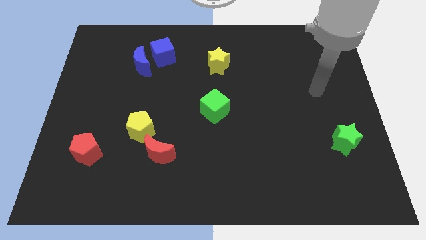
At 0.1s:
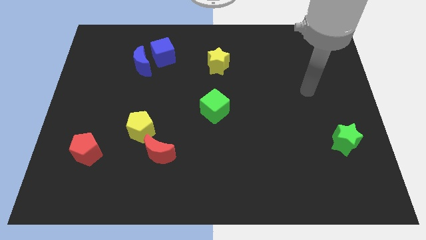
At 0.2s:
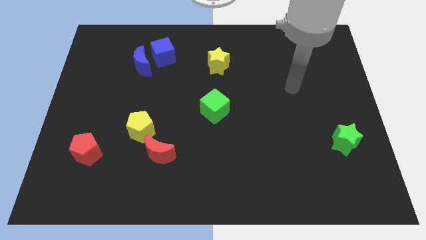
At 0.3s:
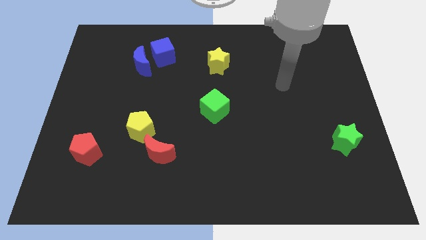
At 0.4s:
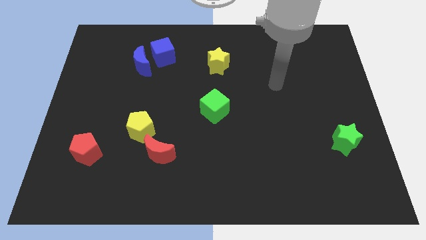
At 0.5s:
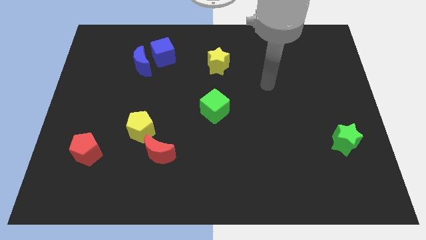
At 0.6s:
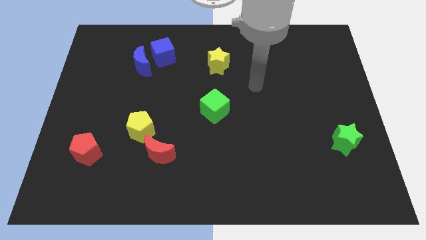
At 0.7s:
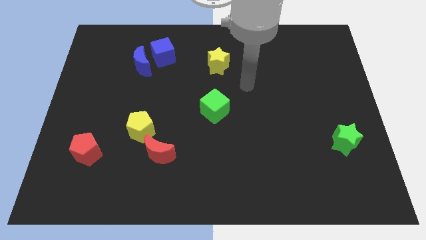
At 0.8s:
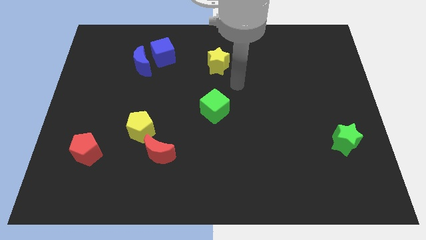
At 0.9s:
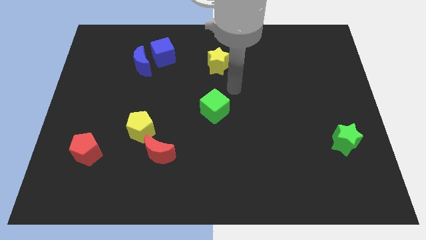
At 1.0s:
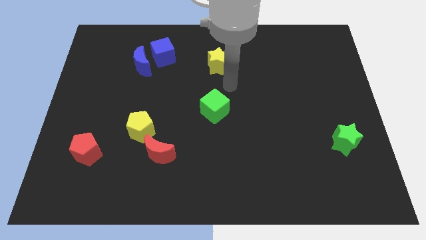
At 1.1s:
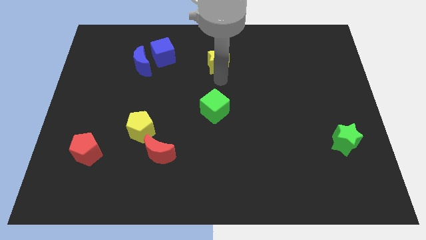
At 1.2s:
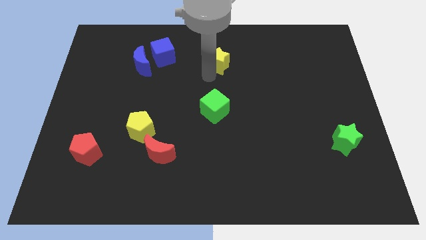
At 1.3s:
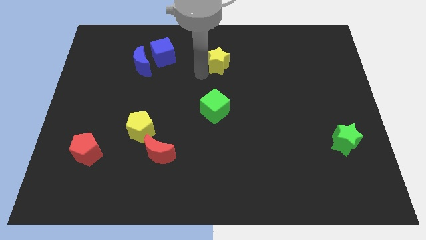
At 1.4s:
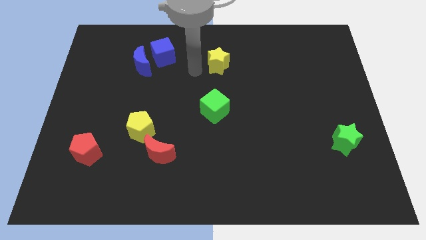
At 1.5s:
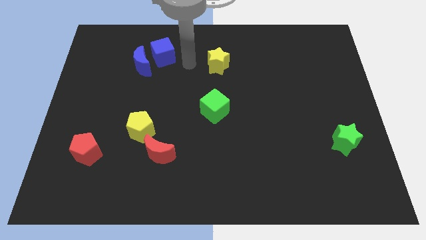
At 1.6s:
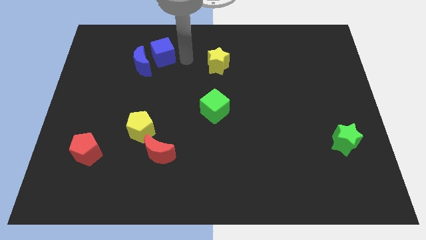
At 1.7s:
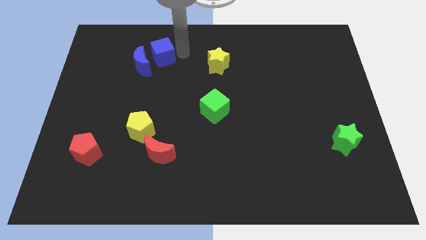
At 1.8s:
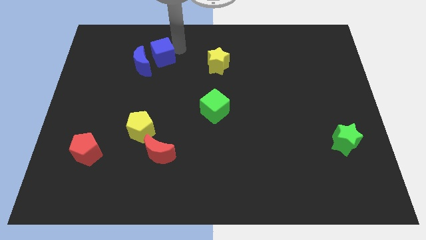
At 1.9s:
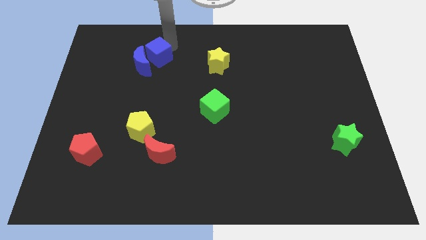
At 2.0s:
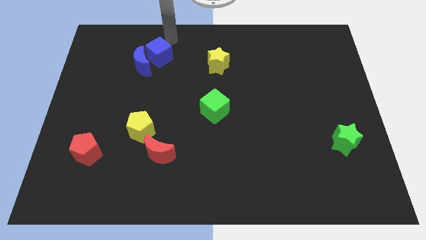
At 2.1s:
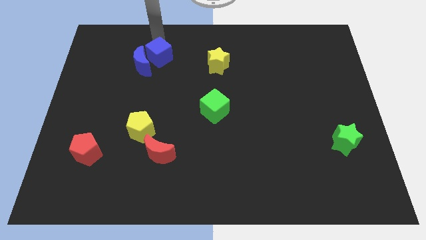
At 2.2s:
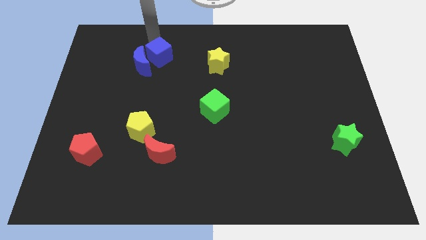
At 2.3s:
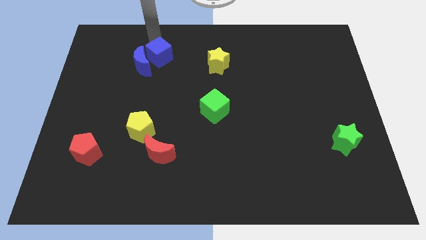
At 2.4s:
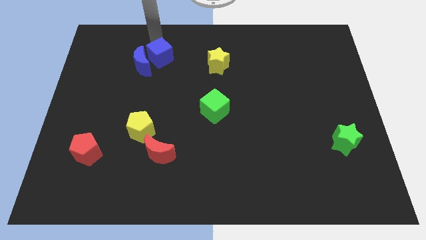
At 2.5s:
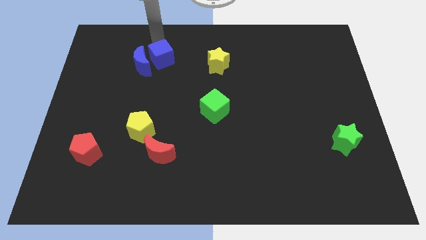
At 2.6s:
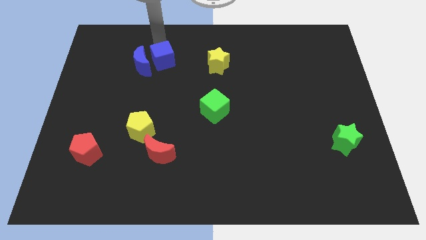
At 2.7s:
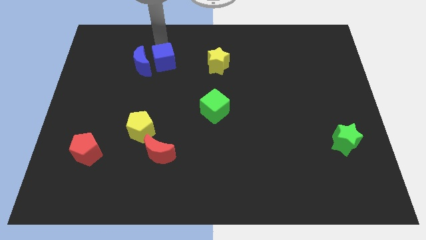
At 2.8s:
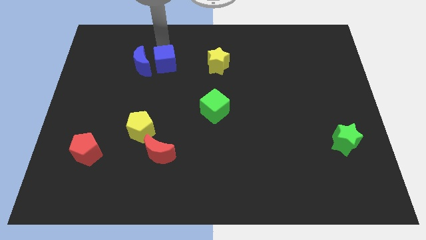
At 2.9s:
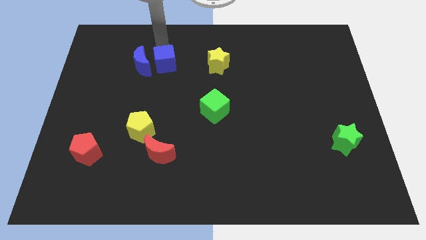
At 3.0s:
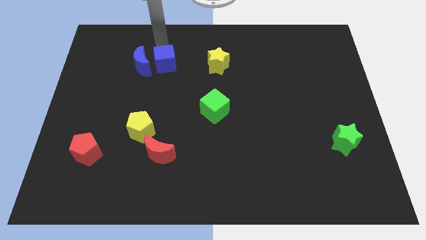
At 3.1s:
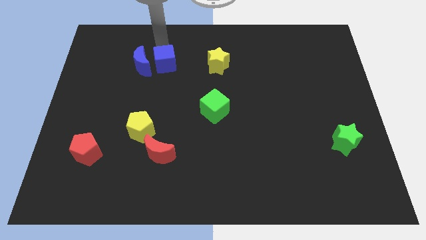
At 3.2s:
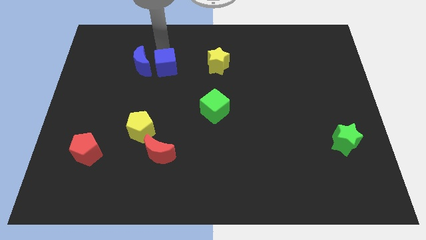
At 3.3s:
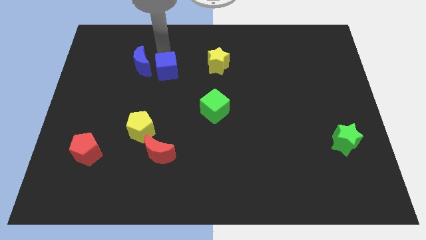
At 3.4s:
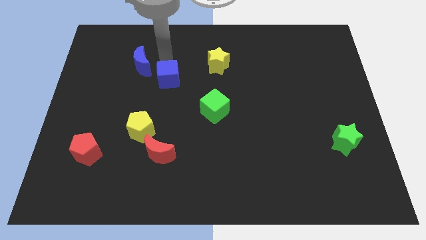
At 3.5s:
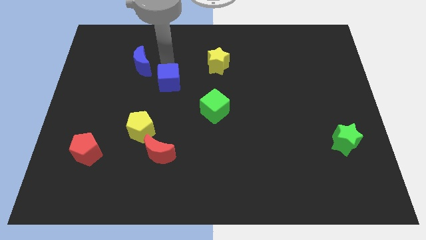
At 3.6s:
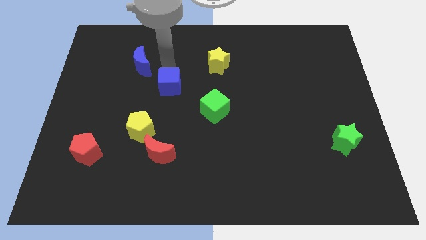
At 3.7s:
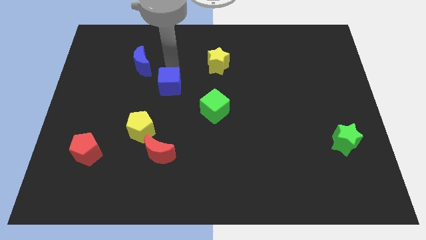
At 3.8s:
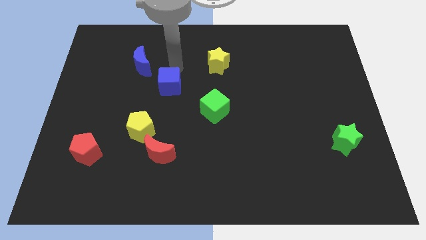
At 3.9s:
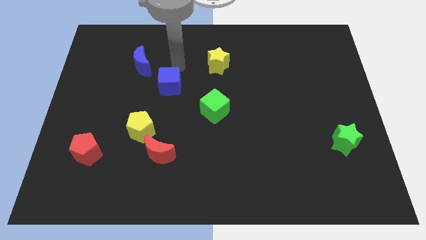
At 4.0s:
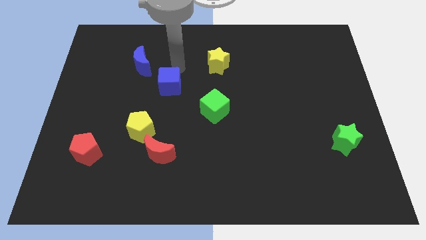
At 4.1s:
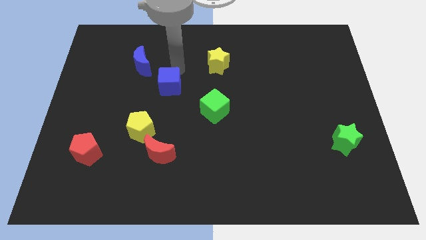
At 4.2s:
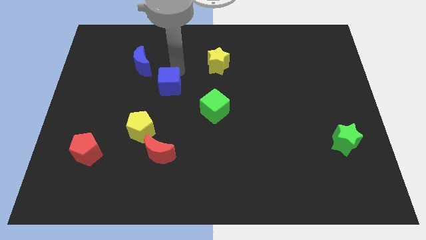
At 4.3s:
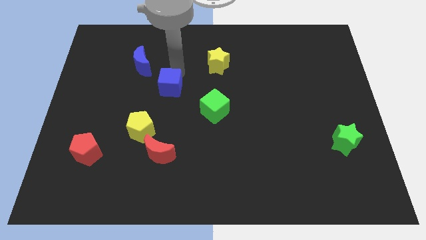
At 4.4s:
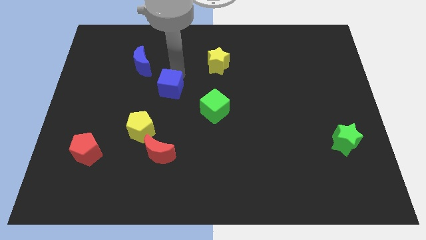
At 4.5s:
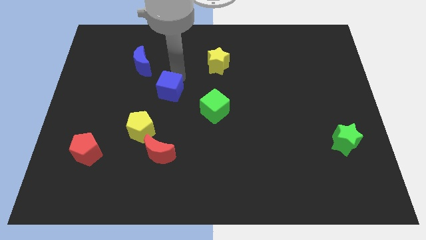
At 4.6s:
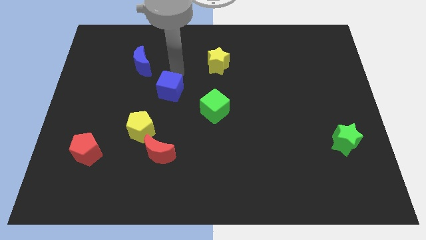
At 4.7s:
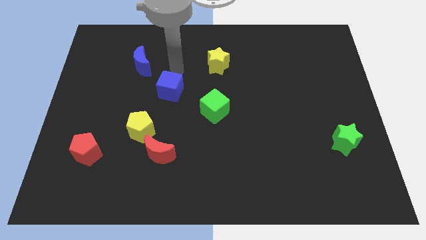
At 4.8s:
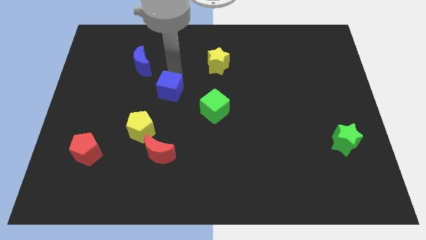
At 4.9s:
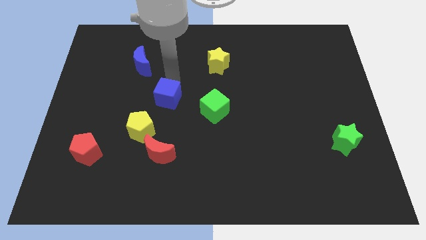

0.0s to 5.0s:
push the blue cube above the red moon

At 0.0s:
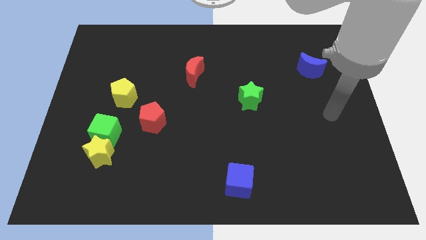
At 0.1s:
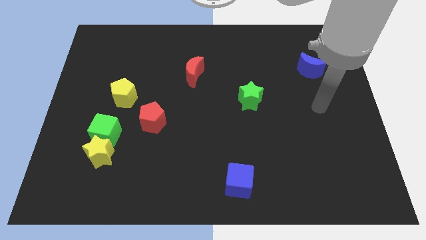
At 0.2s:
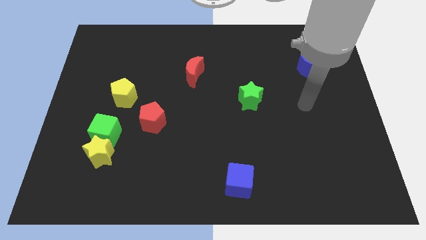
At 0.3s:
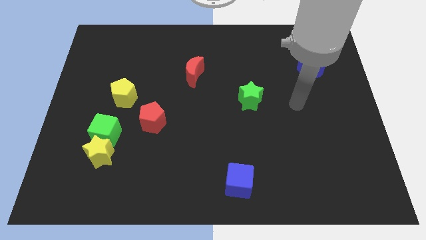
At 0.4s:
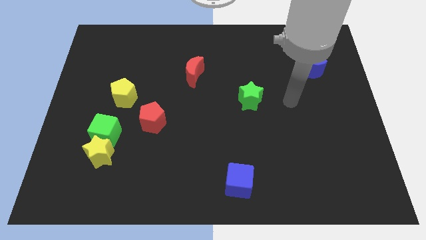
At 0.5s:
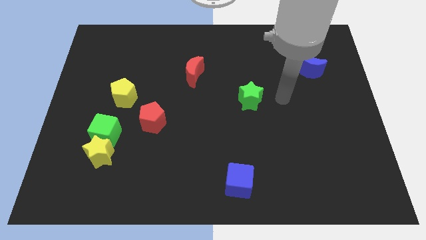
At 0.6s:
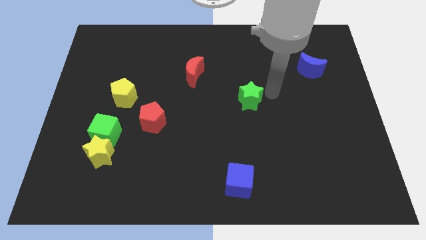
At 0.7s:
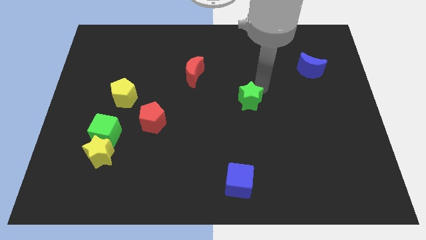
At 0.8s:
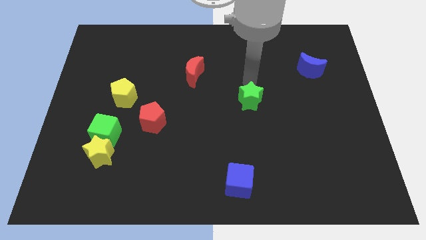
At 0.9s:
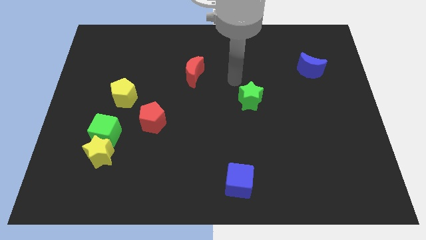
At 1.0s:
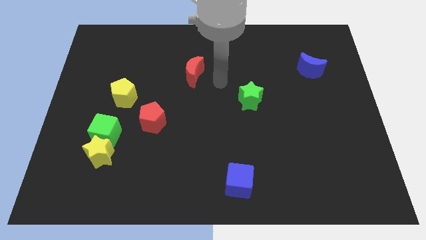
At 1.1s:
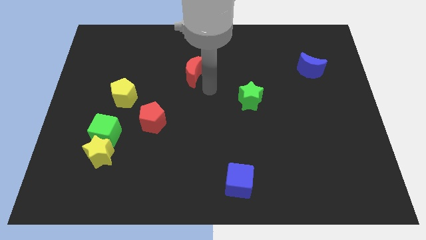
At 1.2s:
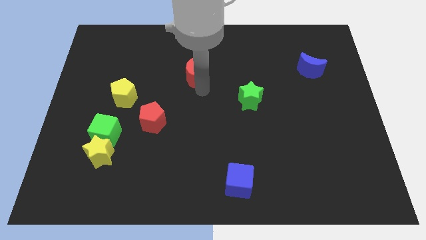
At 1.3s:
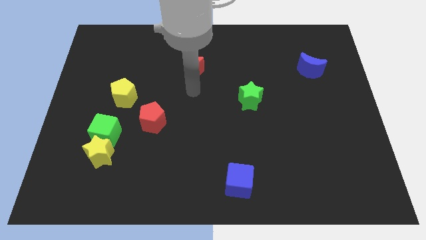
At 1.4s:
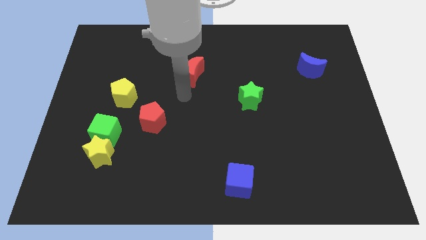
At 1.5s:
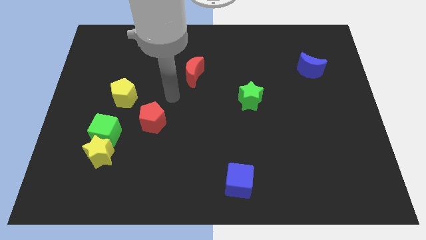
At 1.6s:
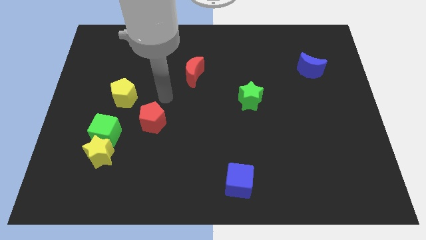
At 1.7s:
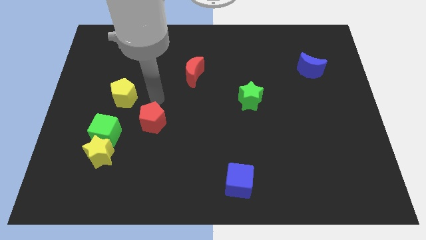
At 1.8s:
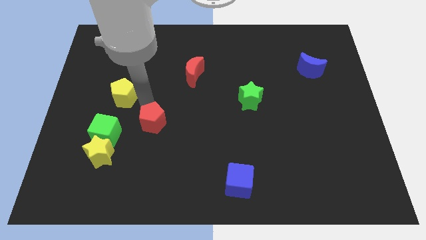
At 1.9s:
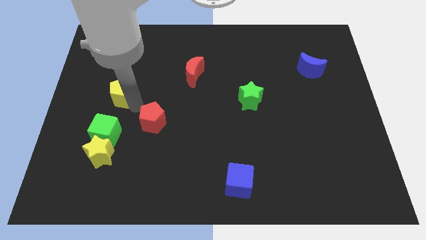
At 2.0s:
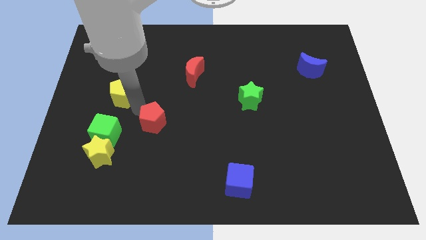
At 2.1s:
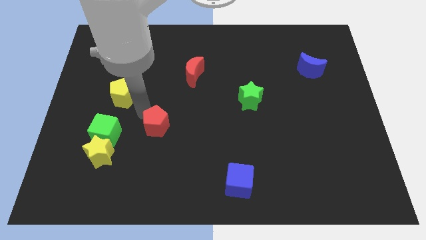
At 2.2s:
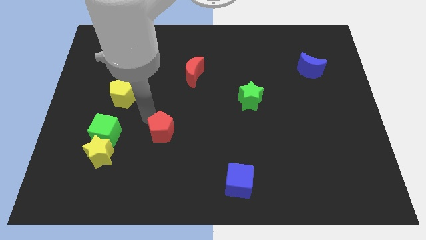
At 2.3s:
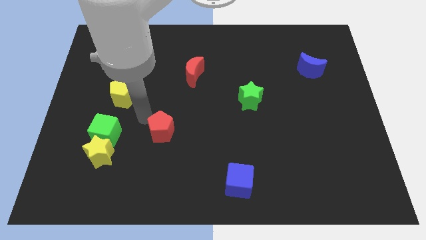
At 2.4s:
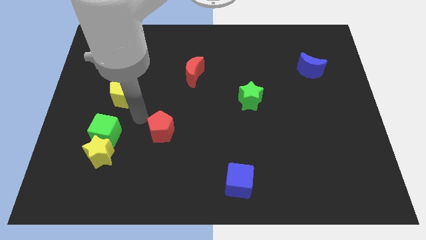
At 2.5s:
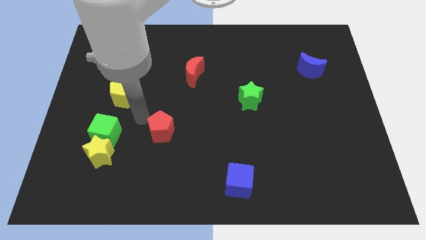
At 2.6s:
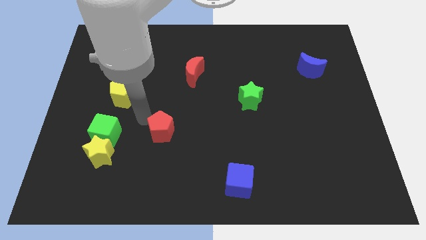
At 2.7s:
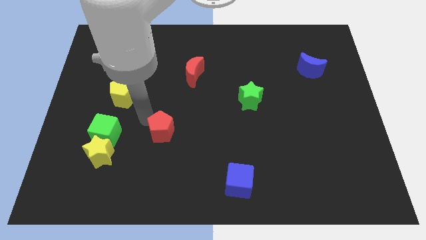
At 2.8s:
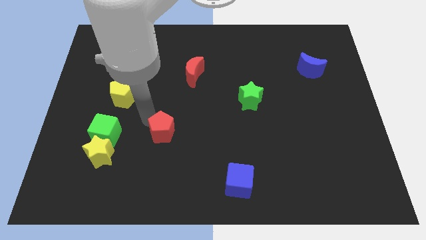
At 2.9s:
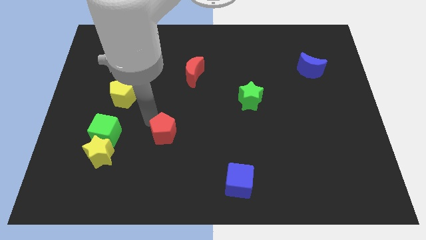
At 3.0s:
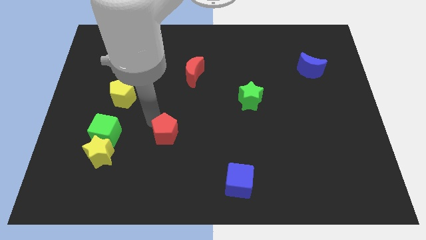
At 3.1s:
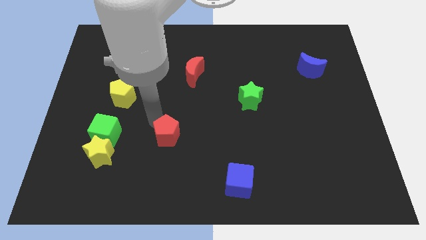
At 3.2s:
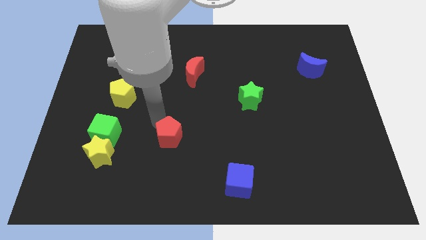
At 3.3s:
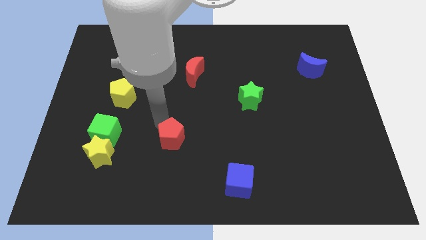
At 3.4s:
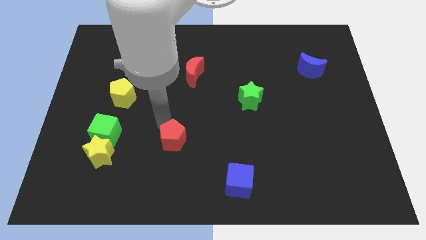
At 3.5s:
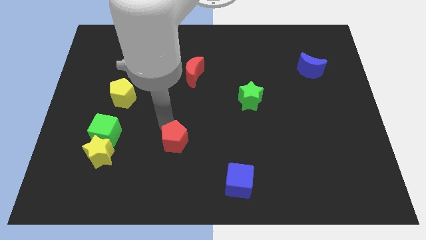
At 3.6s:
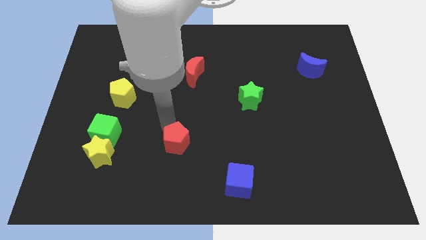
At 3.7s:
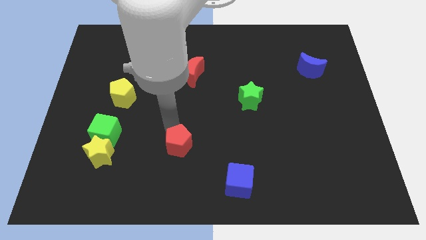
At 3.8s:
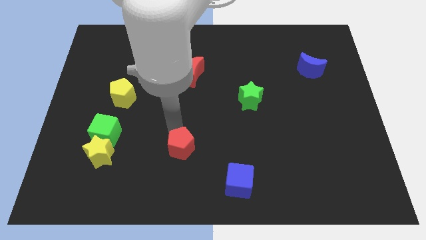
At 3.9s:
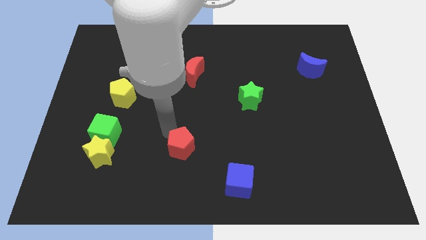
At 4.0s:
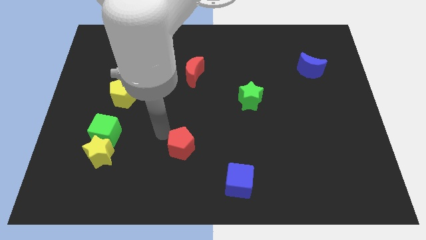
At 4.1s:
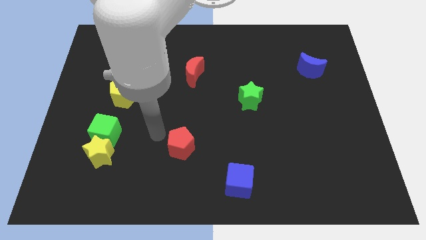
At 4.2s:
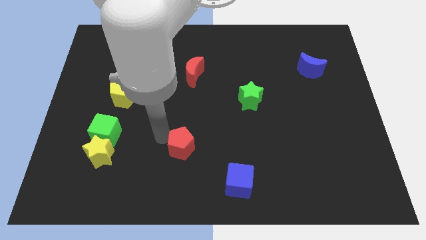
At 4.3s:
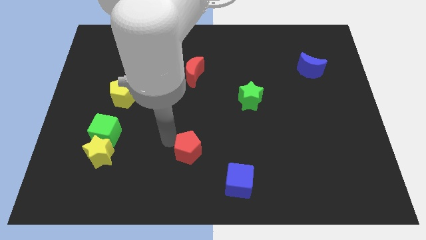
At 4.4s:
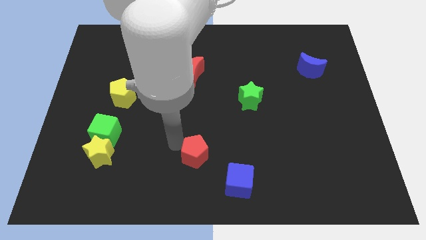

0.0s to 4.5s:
slide the red pentagon diagonally up and to the left of the blue cube
